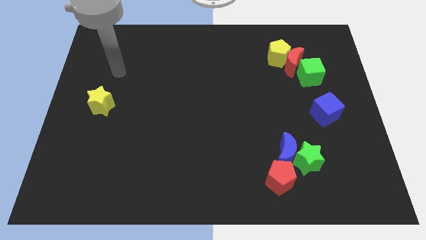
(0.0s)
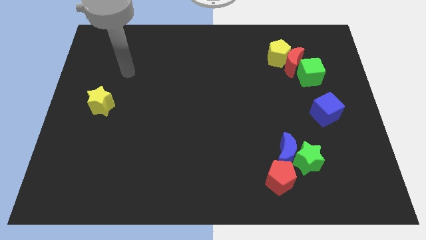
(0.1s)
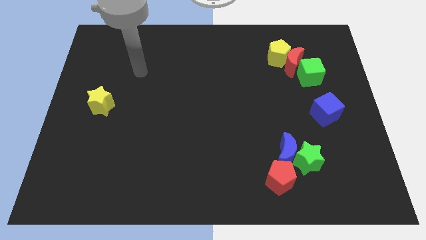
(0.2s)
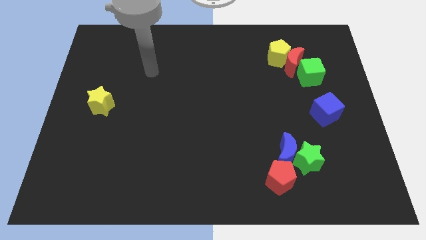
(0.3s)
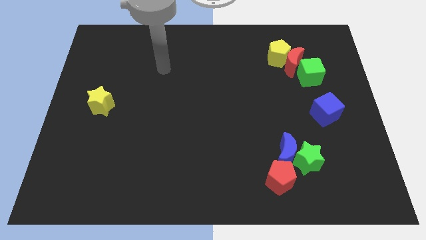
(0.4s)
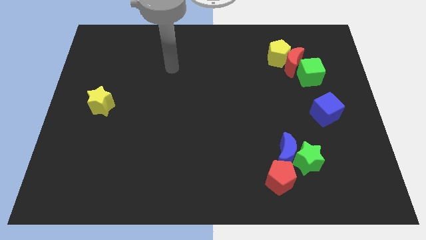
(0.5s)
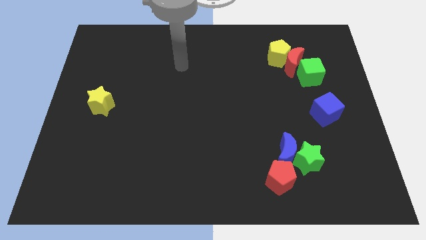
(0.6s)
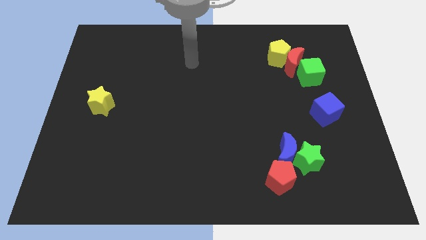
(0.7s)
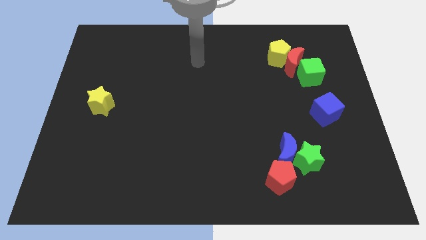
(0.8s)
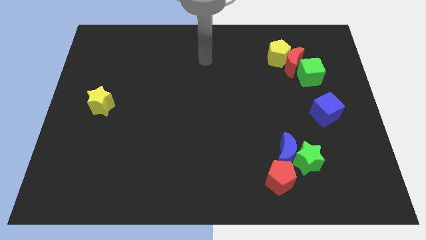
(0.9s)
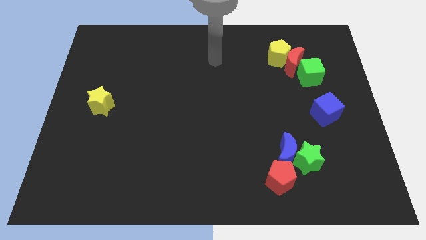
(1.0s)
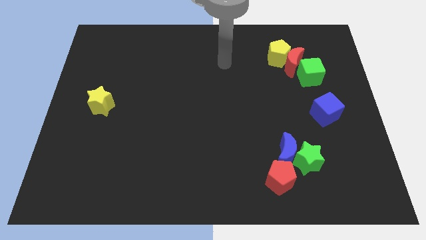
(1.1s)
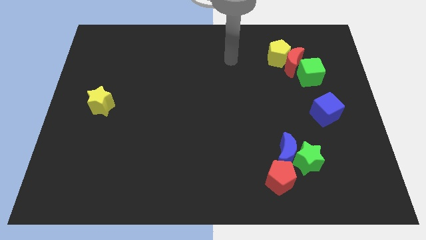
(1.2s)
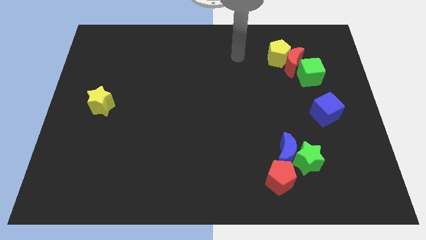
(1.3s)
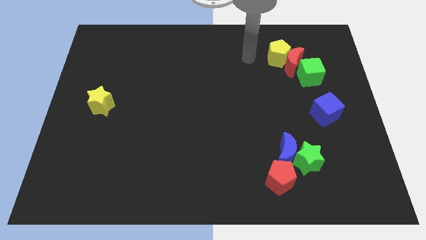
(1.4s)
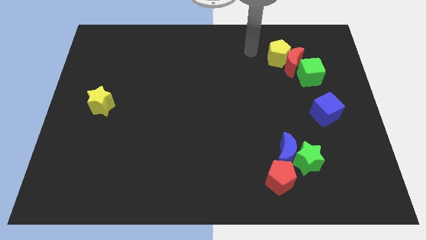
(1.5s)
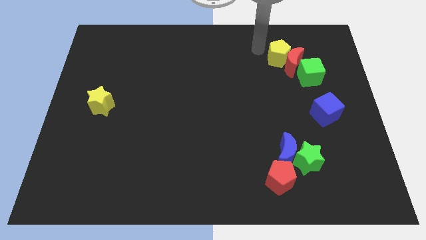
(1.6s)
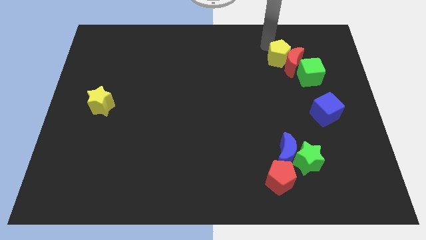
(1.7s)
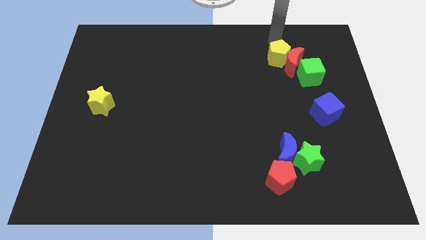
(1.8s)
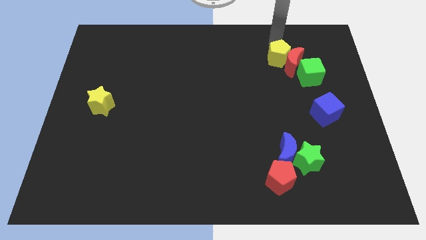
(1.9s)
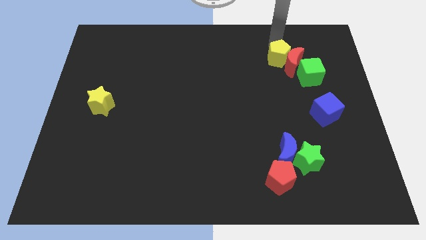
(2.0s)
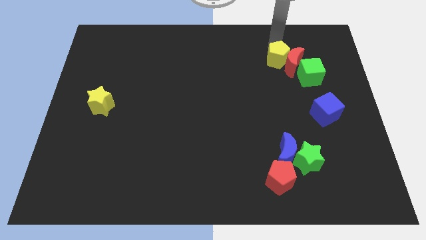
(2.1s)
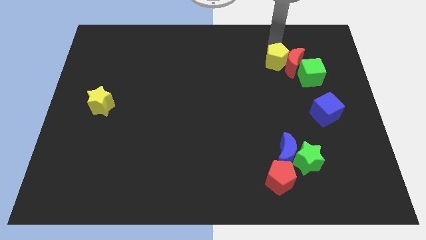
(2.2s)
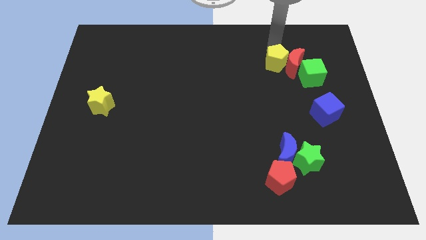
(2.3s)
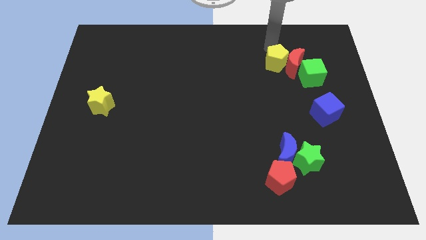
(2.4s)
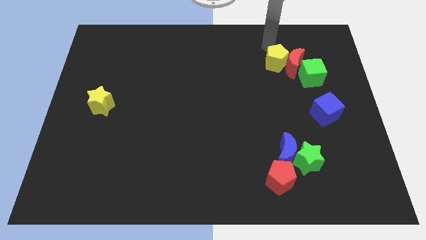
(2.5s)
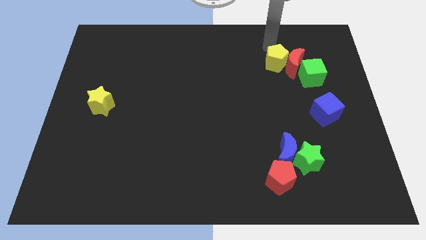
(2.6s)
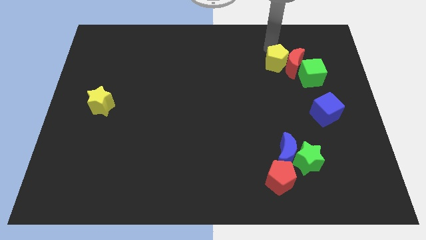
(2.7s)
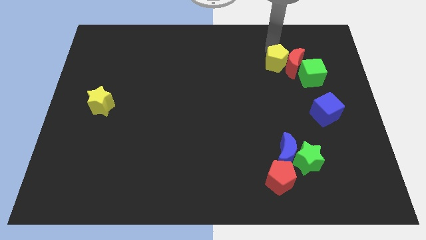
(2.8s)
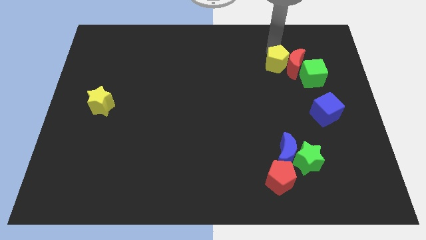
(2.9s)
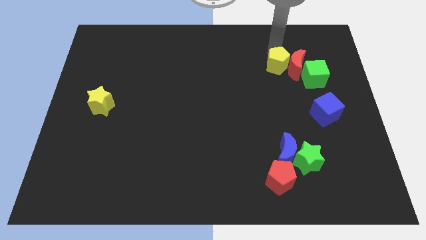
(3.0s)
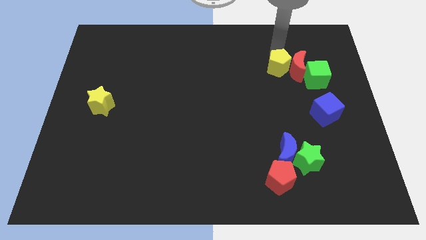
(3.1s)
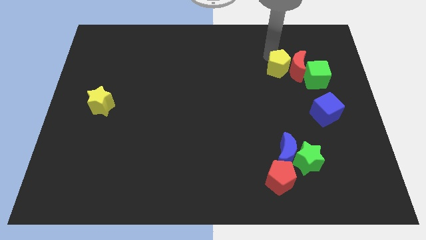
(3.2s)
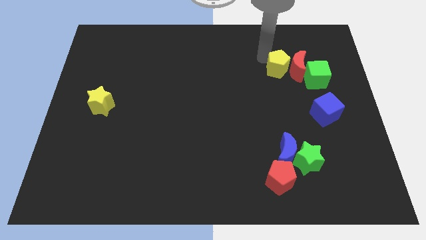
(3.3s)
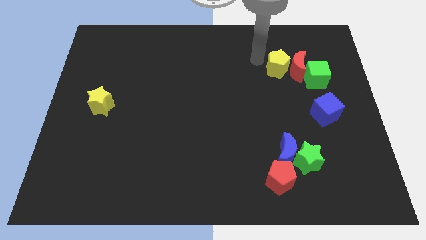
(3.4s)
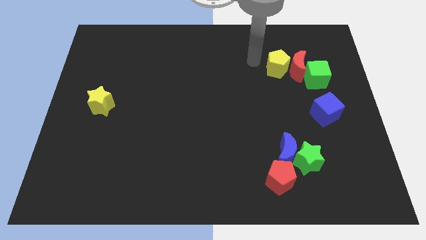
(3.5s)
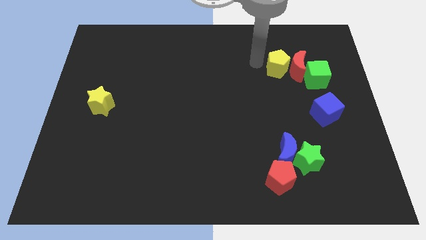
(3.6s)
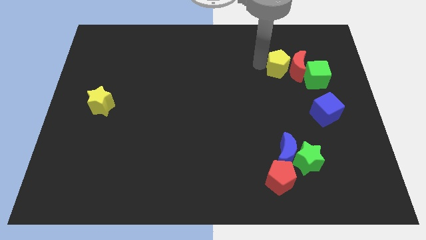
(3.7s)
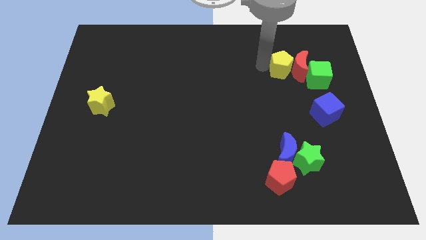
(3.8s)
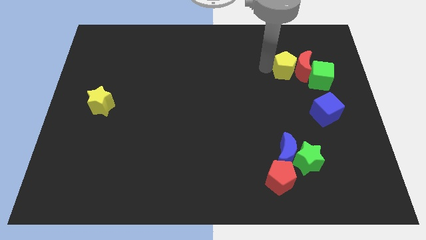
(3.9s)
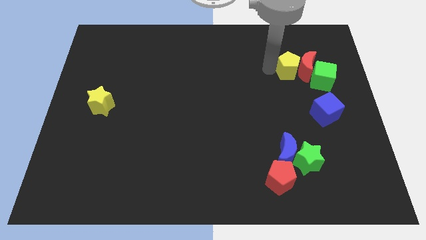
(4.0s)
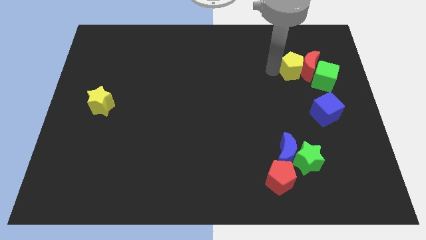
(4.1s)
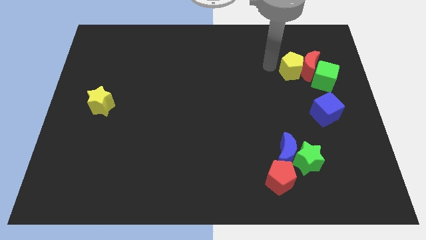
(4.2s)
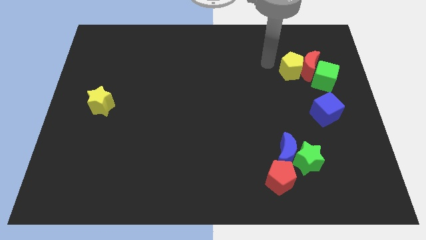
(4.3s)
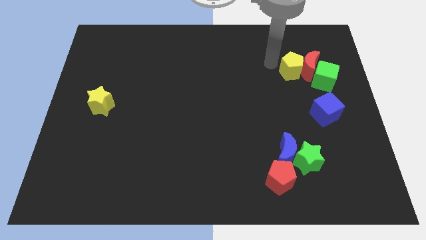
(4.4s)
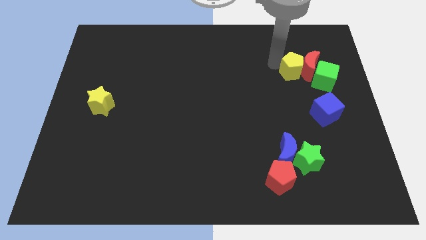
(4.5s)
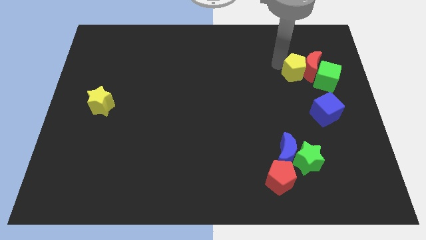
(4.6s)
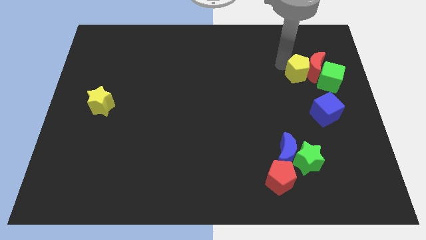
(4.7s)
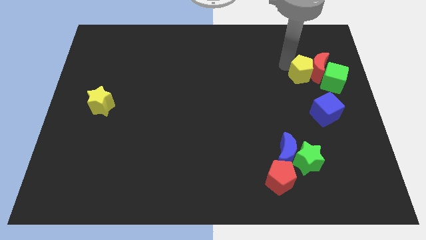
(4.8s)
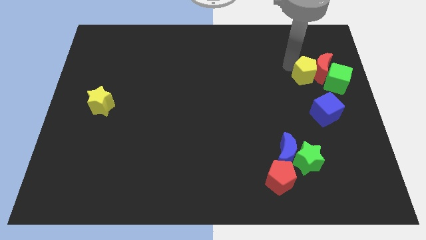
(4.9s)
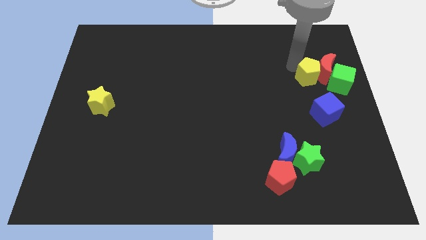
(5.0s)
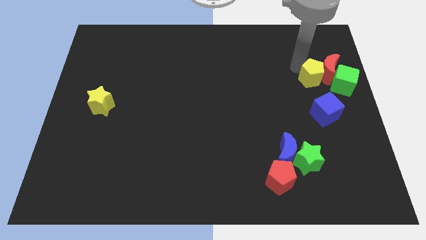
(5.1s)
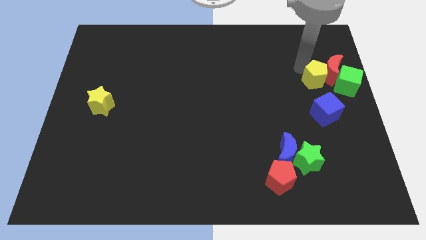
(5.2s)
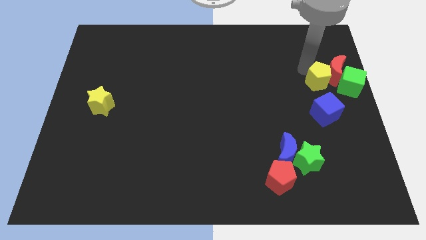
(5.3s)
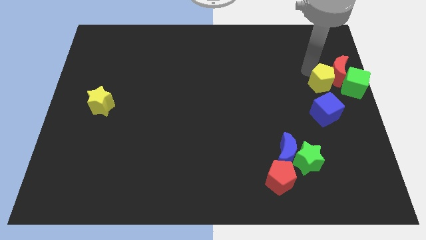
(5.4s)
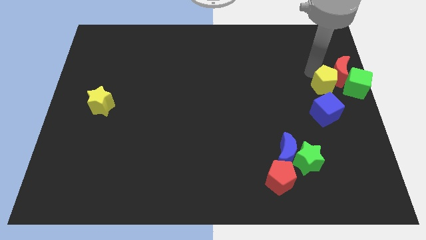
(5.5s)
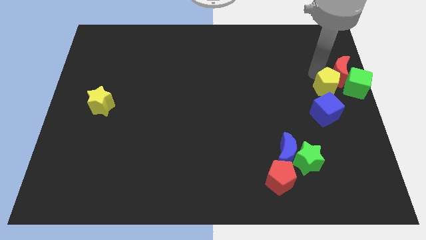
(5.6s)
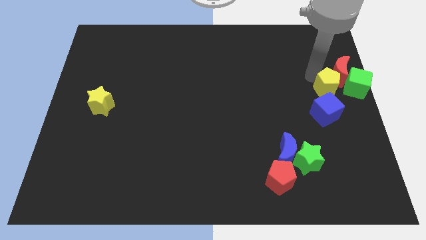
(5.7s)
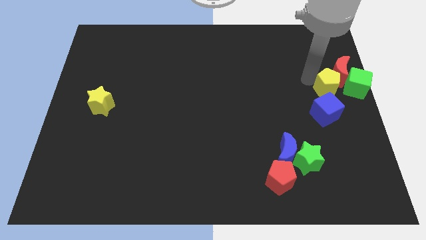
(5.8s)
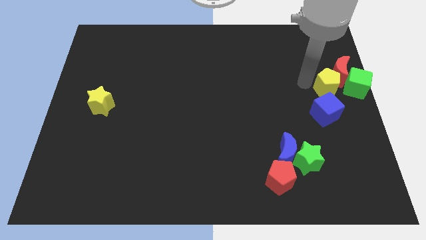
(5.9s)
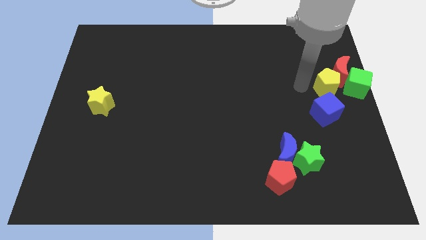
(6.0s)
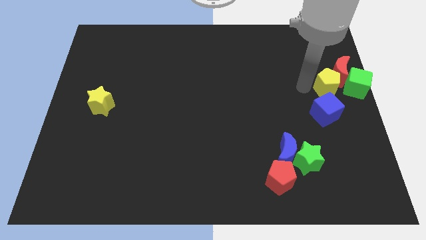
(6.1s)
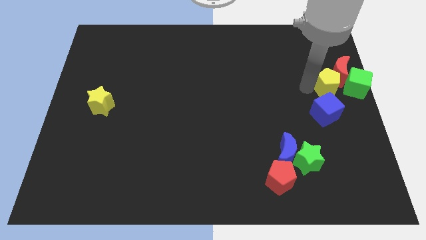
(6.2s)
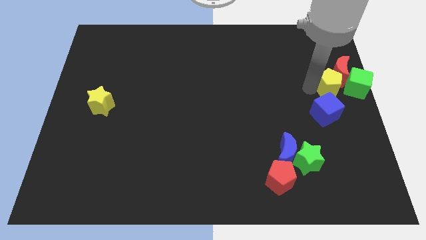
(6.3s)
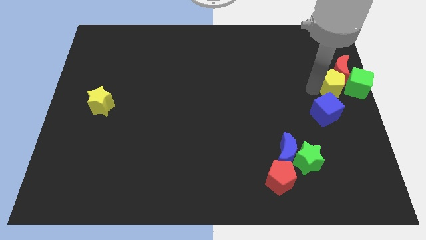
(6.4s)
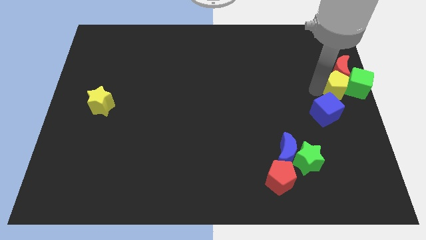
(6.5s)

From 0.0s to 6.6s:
slide the yellow pentagon close to the green cube
